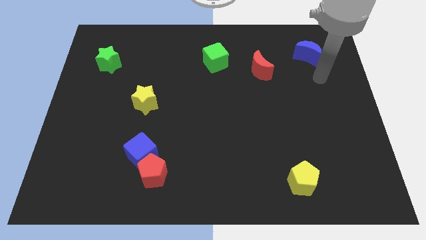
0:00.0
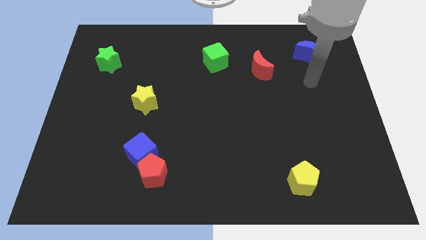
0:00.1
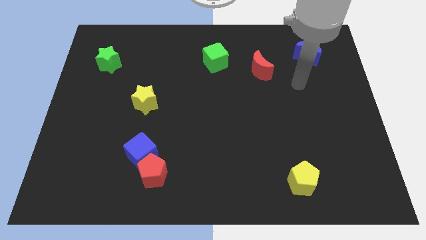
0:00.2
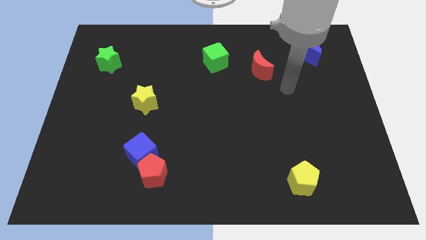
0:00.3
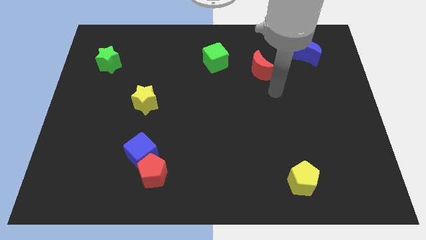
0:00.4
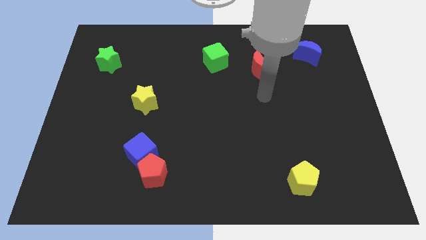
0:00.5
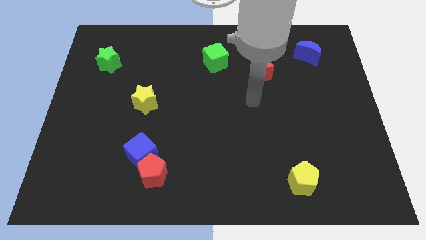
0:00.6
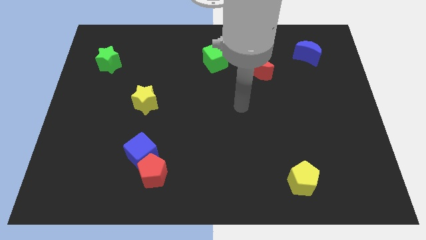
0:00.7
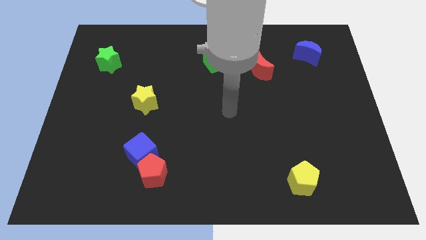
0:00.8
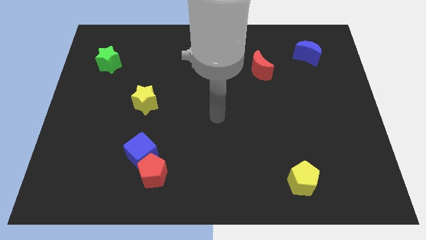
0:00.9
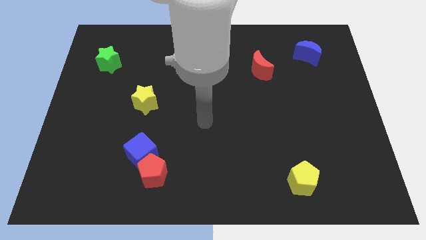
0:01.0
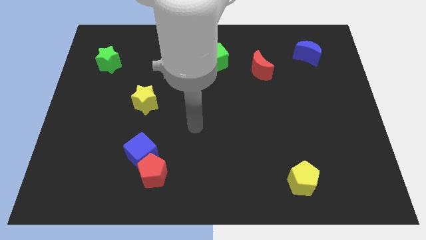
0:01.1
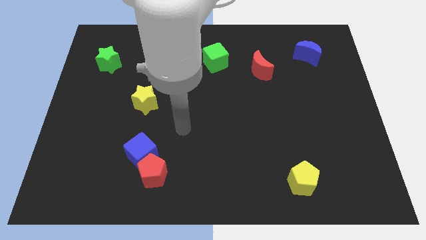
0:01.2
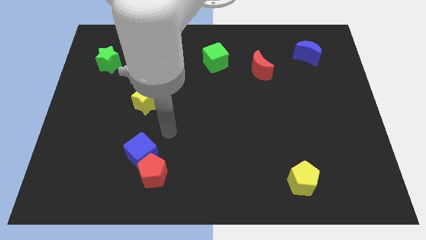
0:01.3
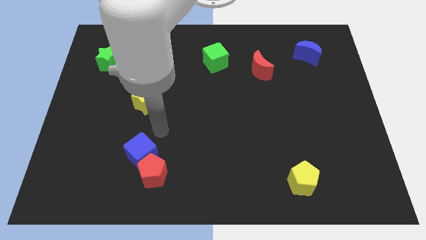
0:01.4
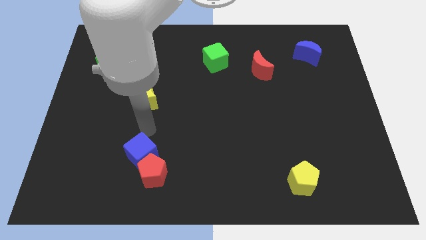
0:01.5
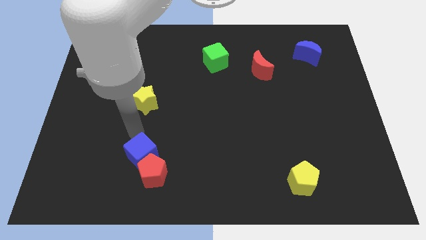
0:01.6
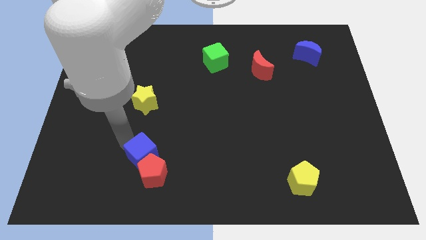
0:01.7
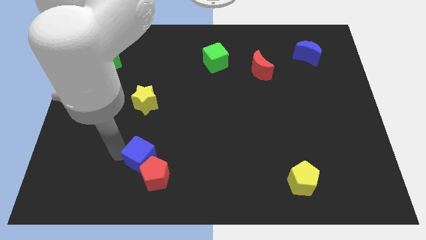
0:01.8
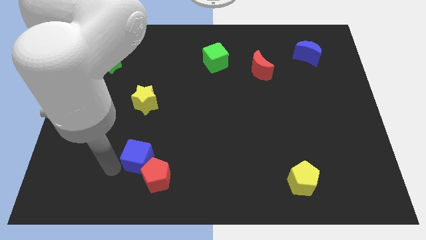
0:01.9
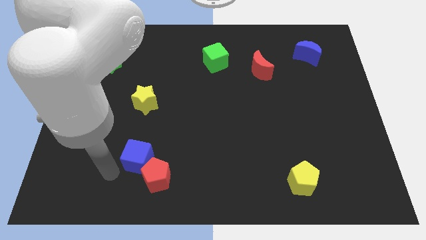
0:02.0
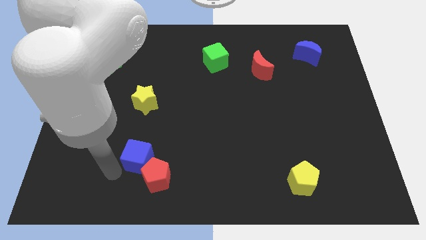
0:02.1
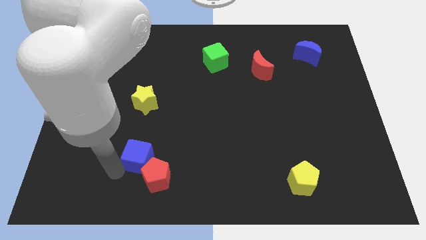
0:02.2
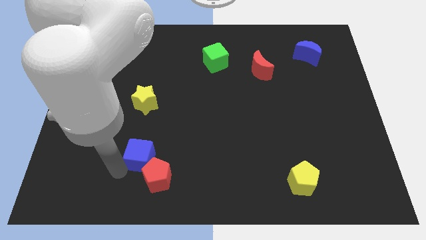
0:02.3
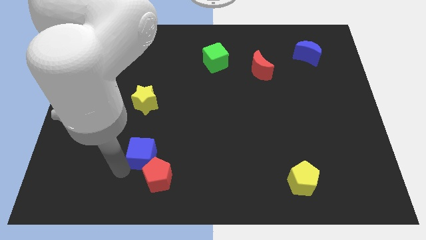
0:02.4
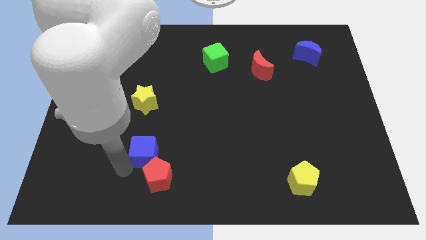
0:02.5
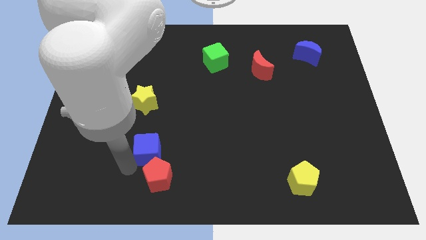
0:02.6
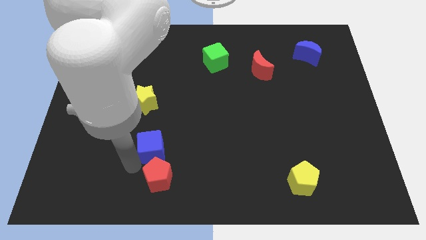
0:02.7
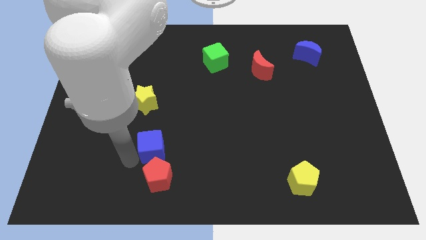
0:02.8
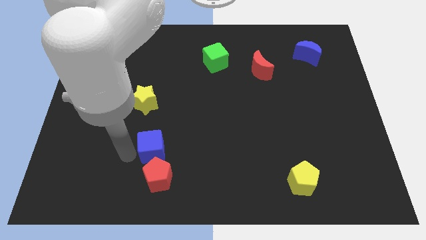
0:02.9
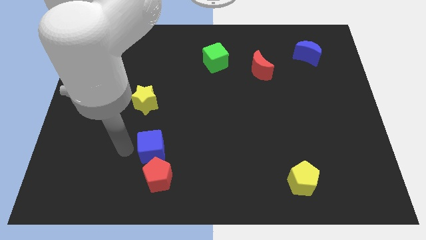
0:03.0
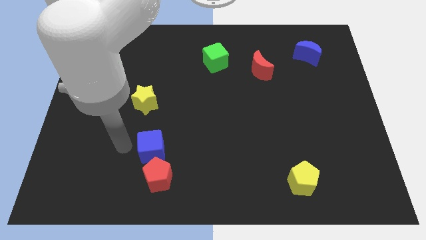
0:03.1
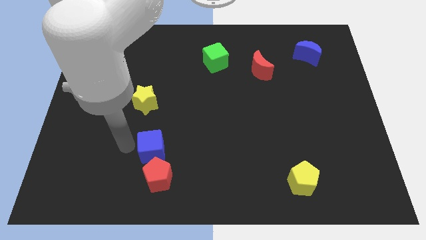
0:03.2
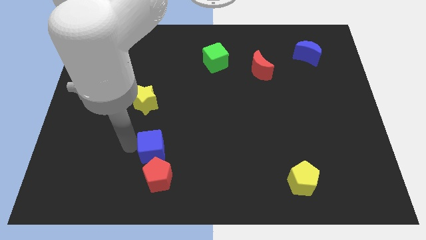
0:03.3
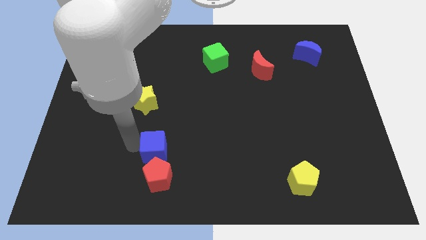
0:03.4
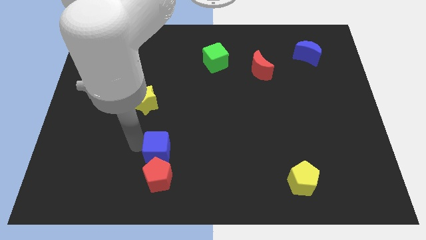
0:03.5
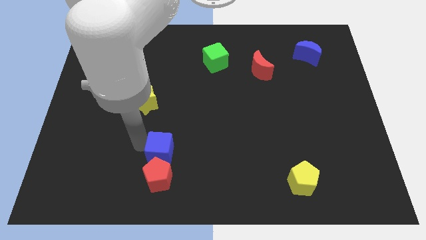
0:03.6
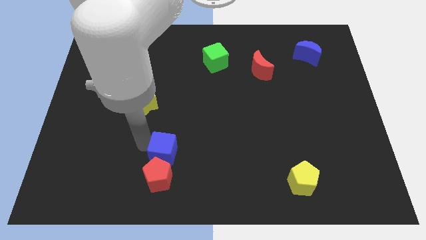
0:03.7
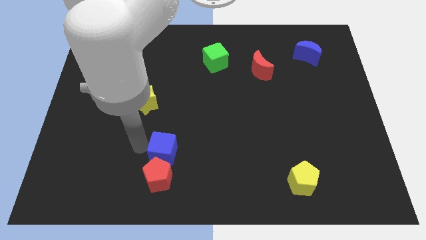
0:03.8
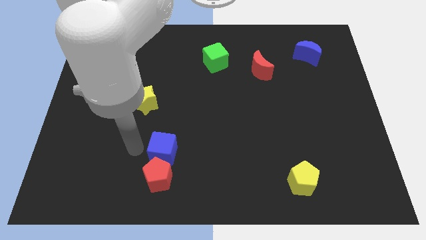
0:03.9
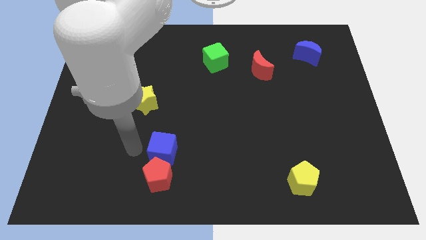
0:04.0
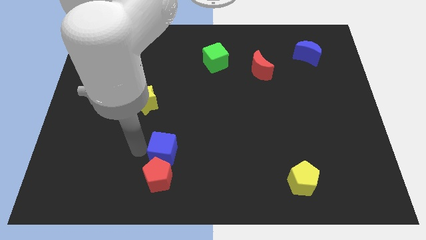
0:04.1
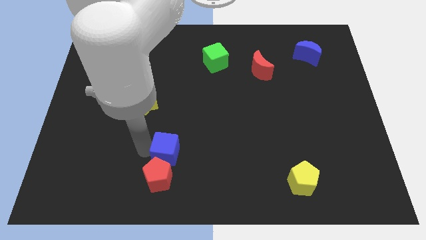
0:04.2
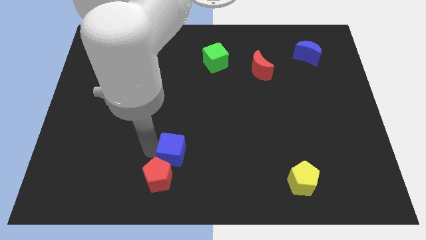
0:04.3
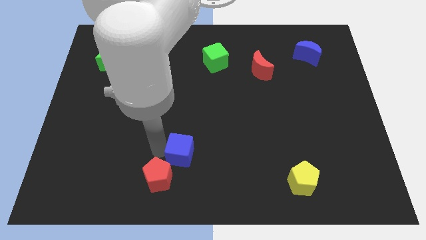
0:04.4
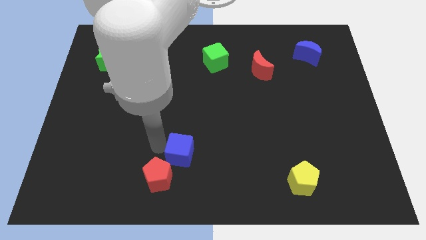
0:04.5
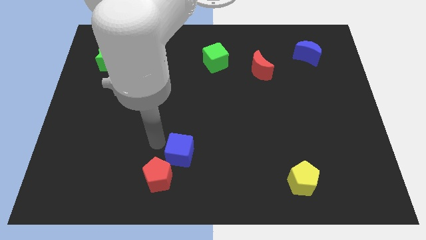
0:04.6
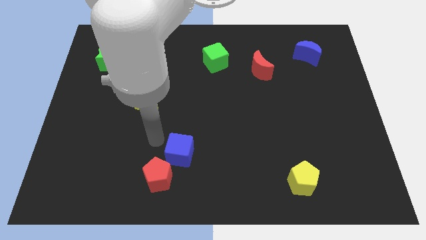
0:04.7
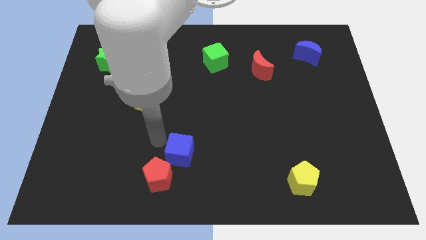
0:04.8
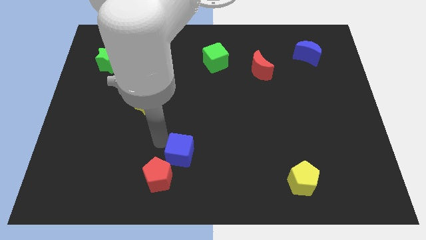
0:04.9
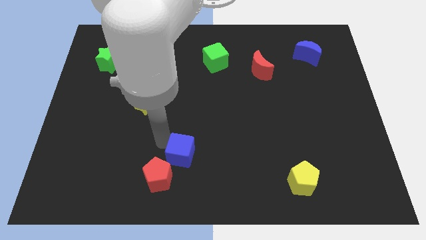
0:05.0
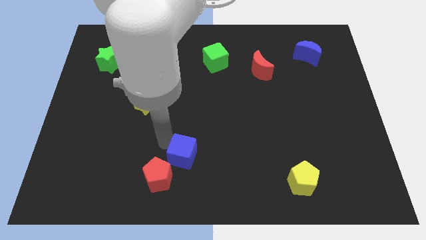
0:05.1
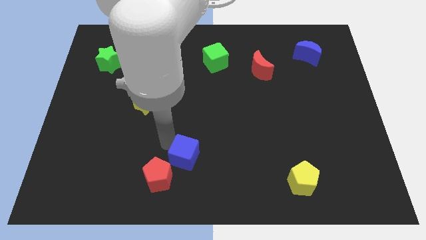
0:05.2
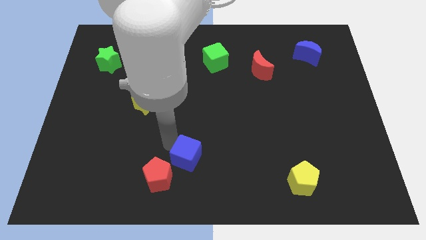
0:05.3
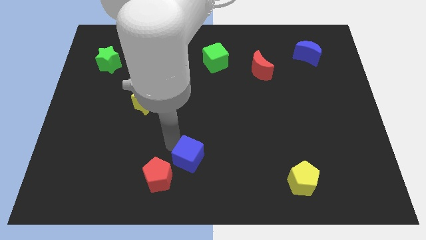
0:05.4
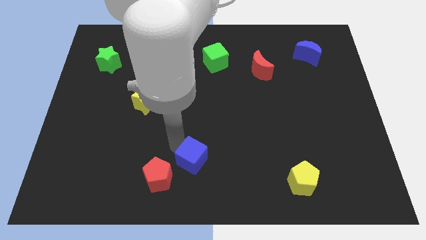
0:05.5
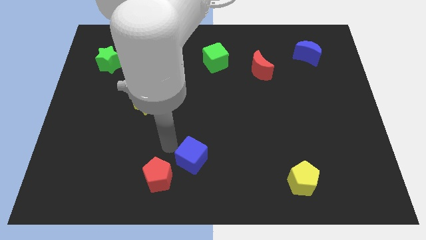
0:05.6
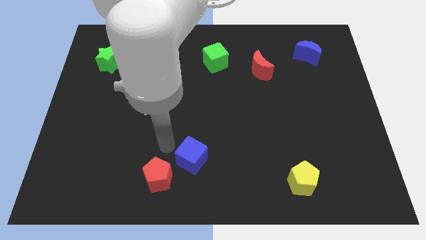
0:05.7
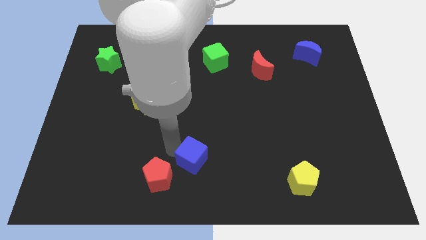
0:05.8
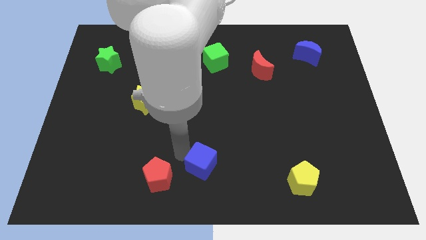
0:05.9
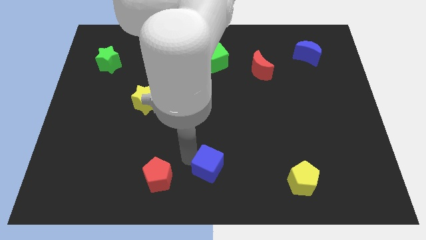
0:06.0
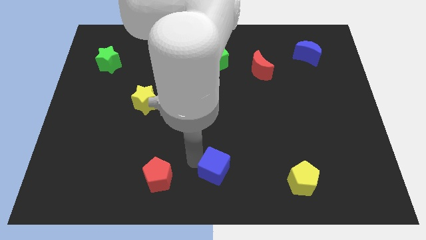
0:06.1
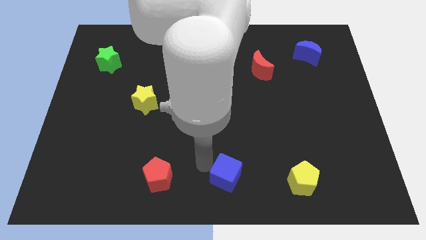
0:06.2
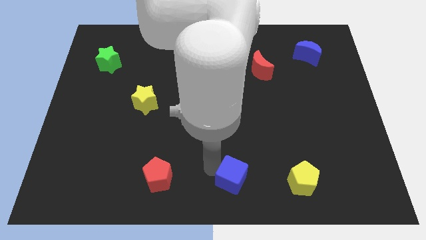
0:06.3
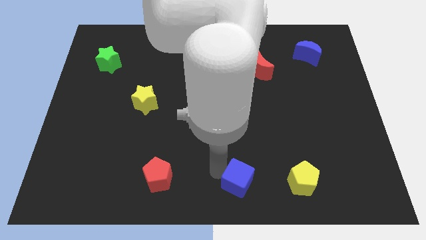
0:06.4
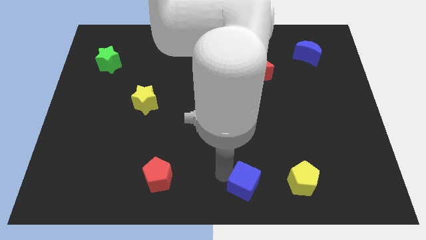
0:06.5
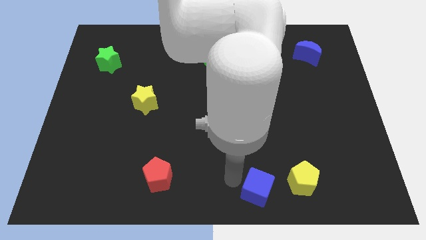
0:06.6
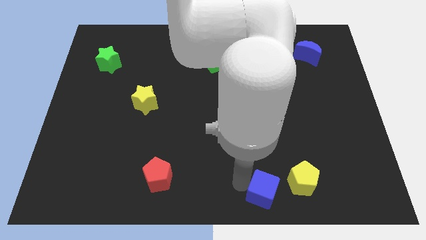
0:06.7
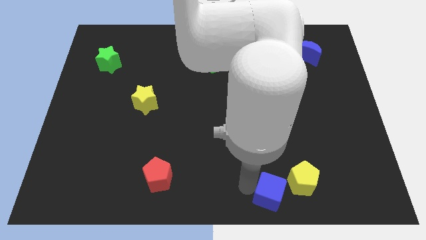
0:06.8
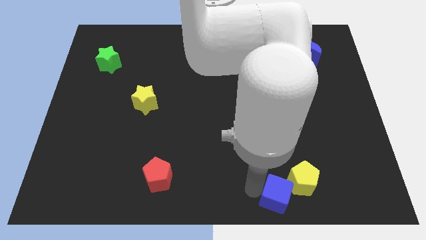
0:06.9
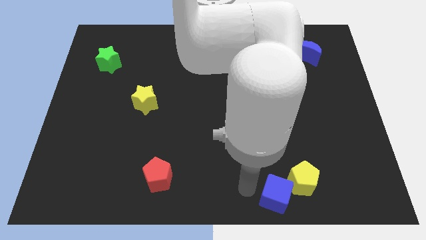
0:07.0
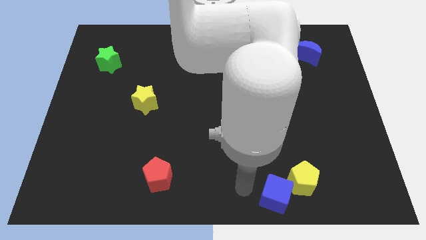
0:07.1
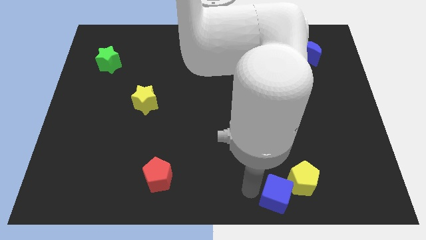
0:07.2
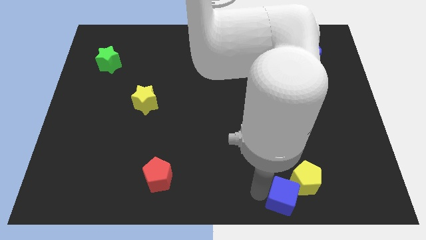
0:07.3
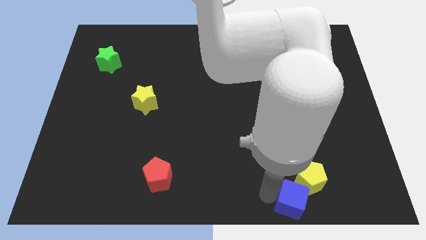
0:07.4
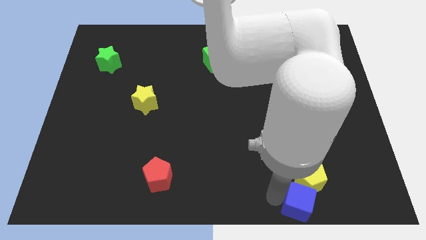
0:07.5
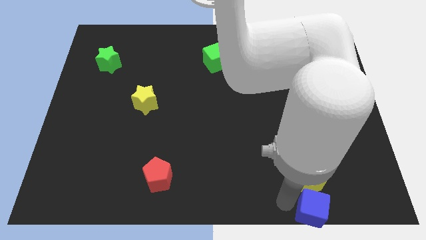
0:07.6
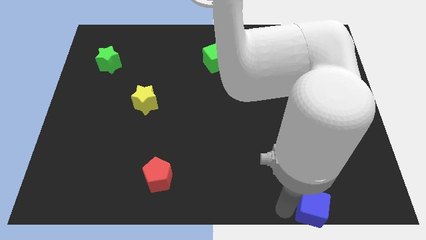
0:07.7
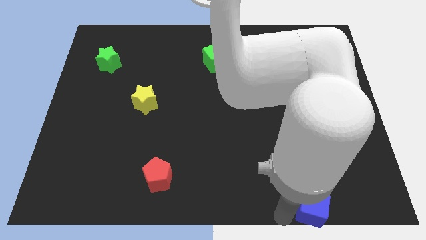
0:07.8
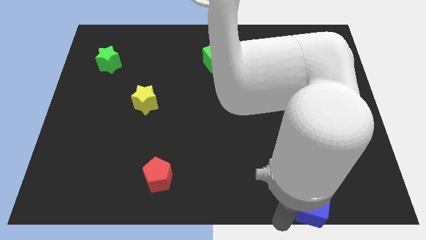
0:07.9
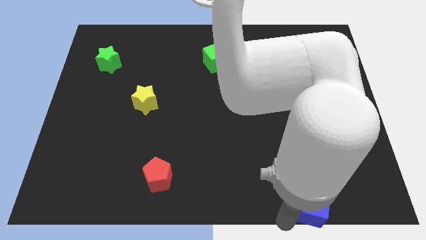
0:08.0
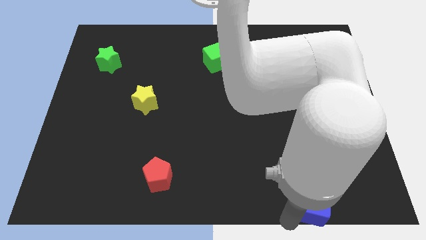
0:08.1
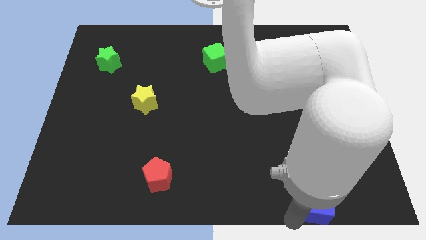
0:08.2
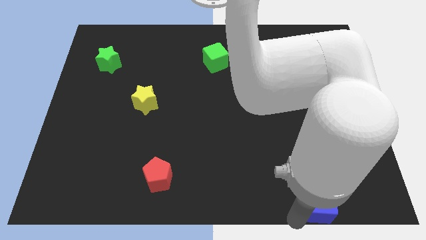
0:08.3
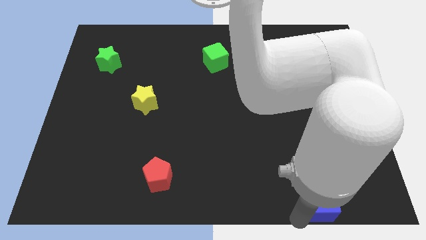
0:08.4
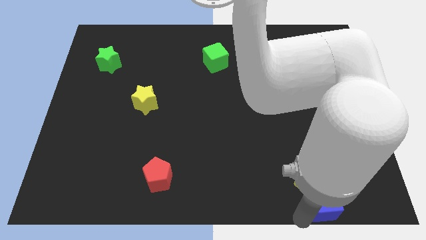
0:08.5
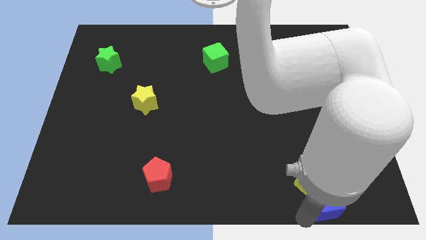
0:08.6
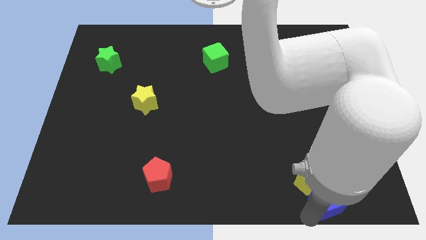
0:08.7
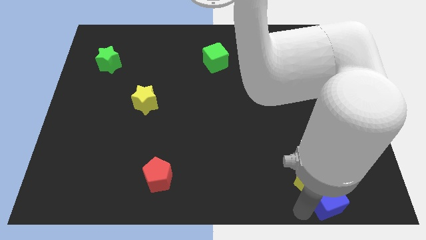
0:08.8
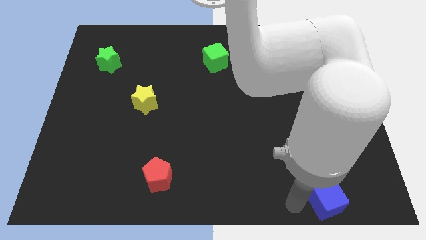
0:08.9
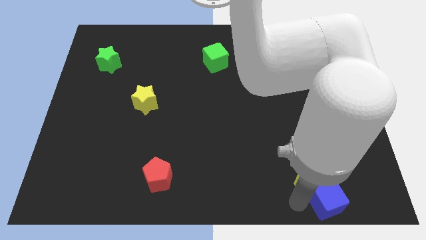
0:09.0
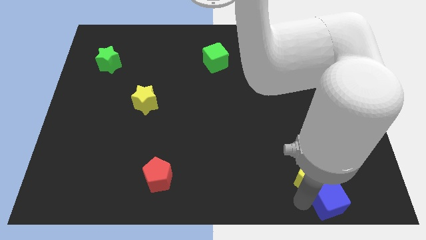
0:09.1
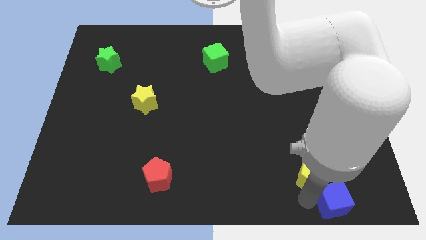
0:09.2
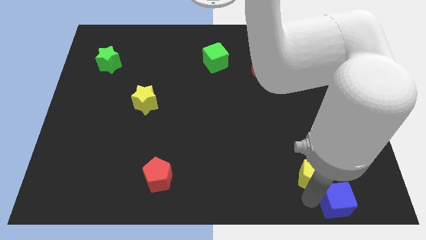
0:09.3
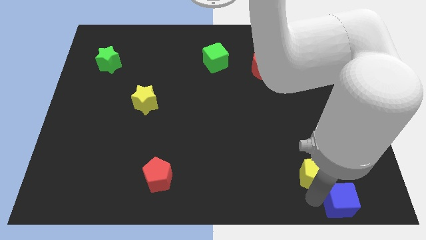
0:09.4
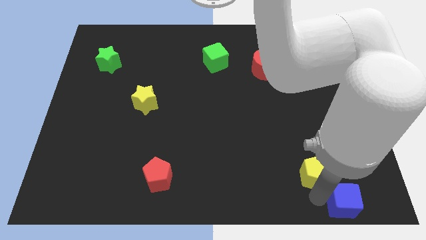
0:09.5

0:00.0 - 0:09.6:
move the blue cube to the lower right corner
